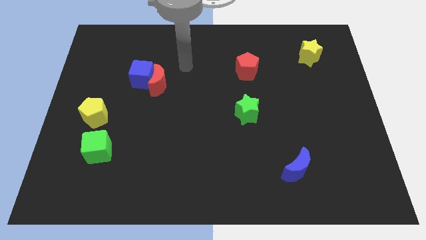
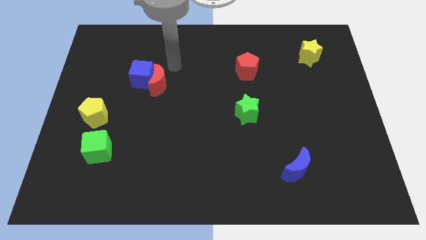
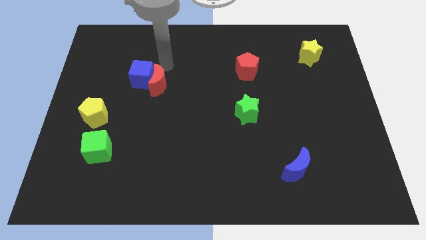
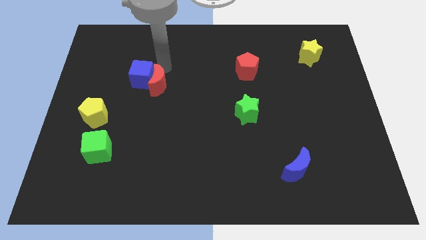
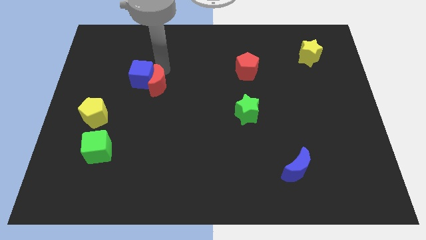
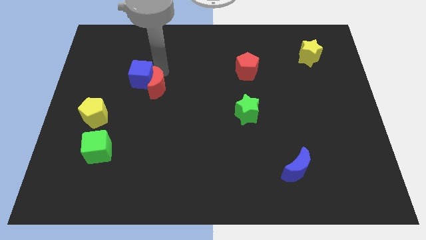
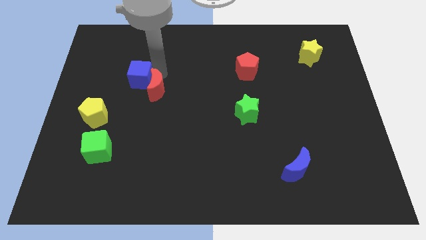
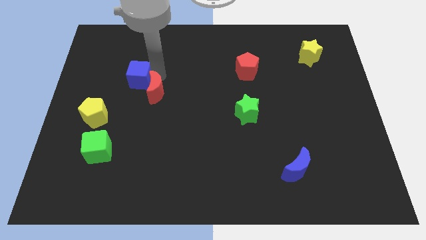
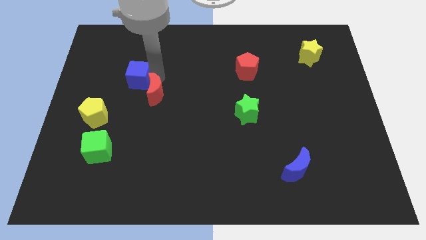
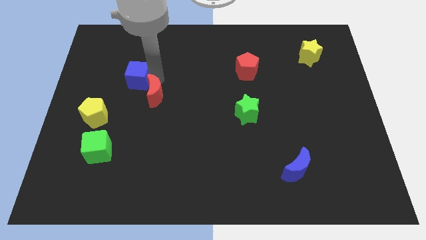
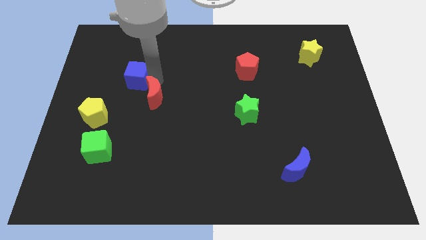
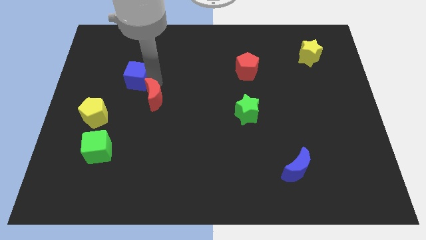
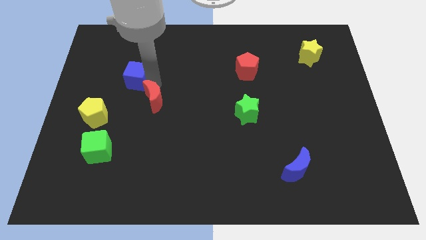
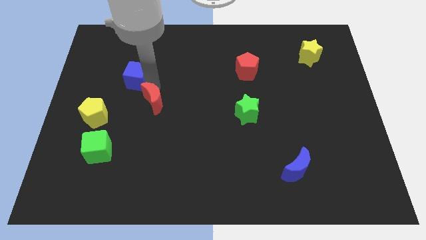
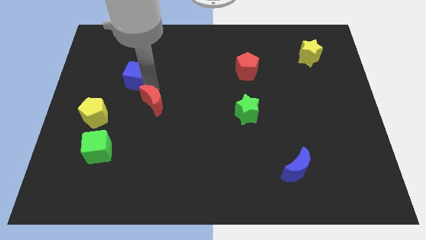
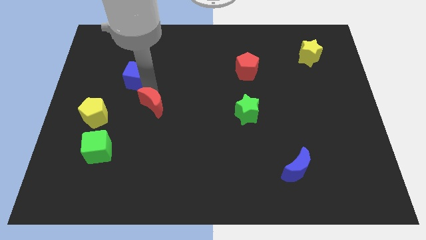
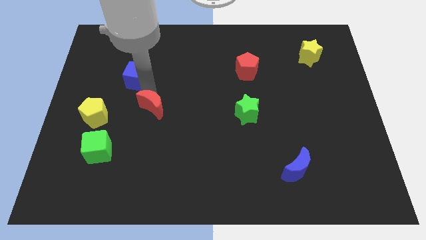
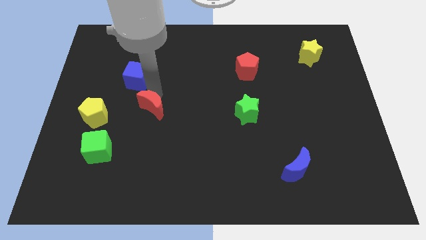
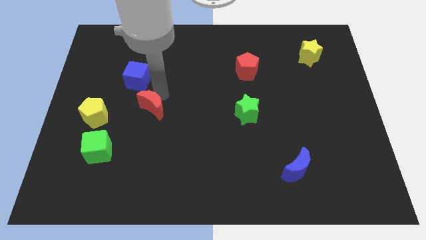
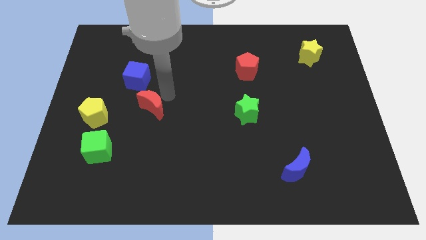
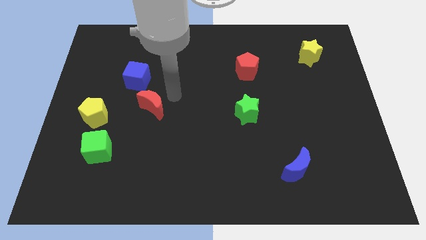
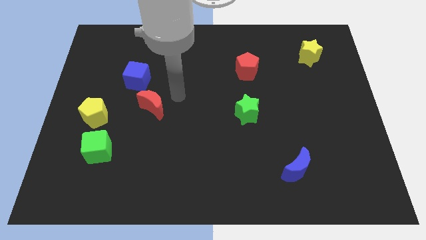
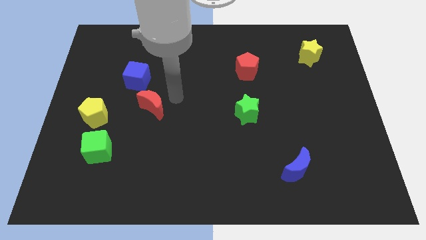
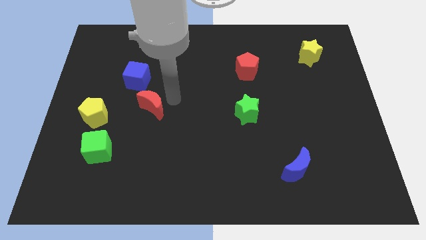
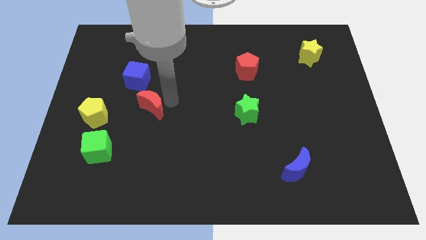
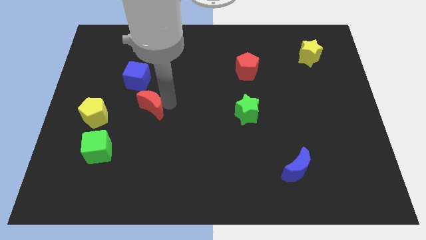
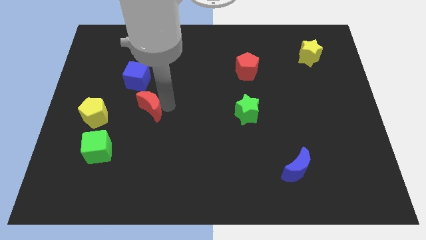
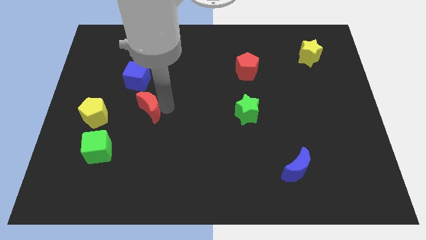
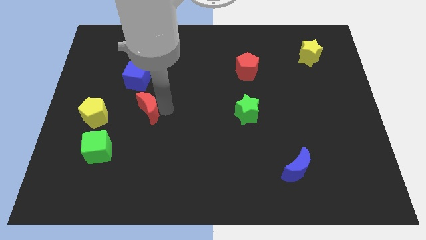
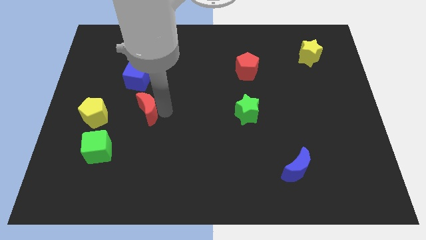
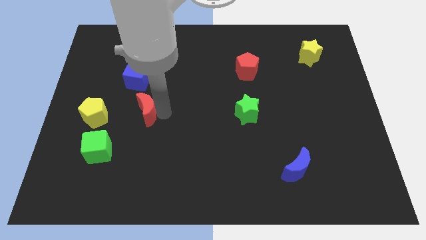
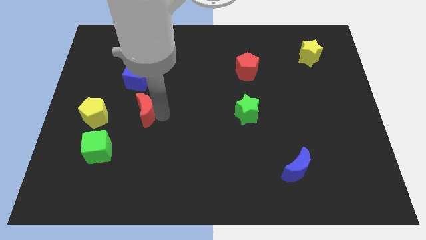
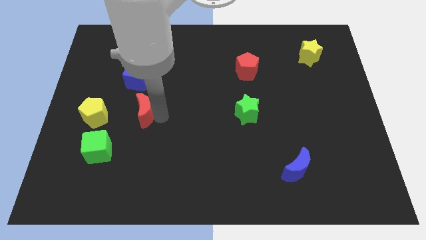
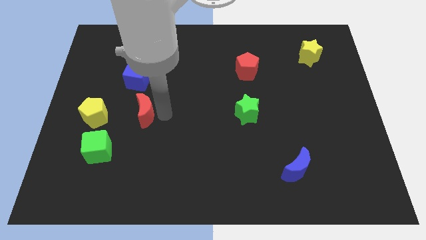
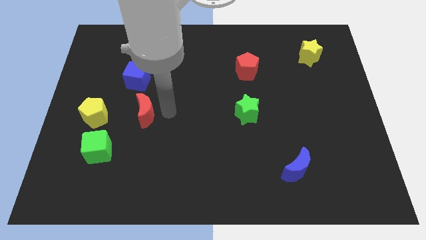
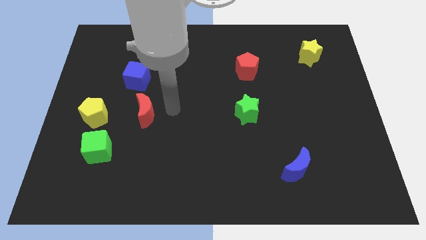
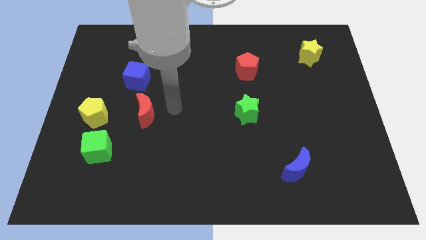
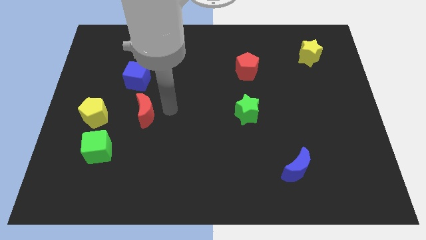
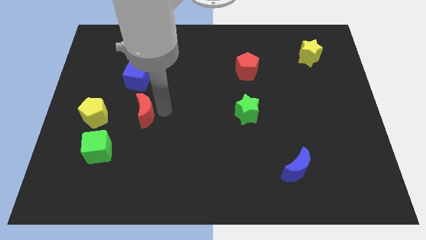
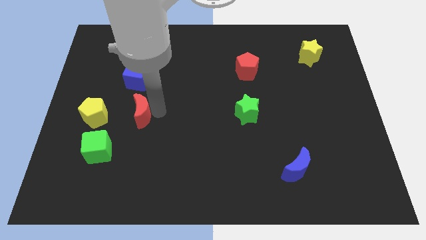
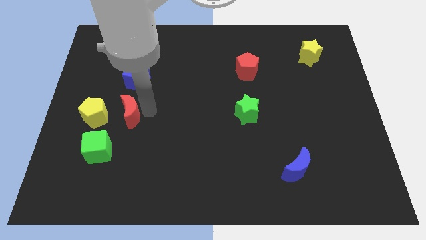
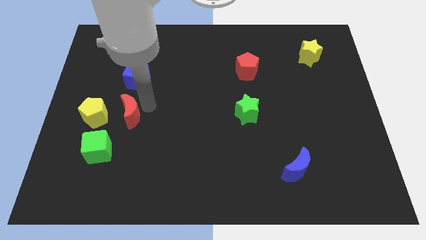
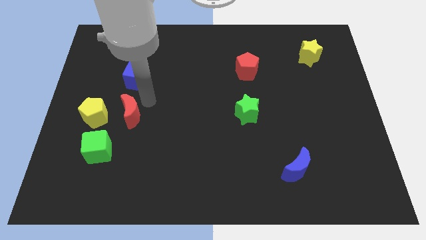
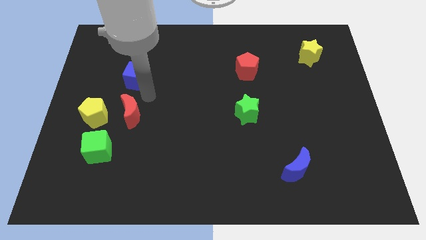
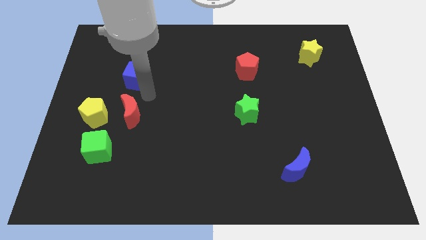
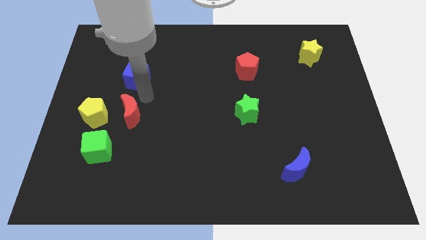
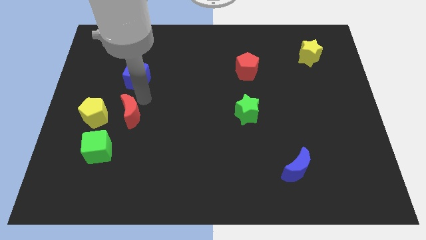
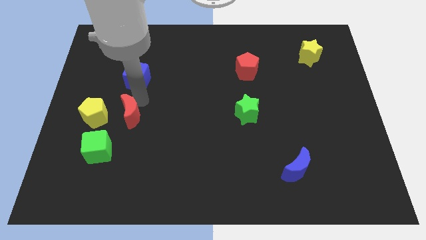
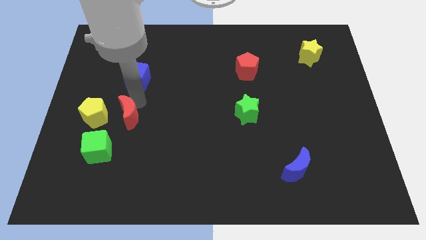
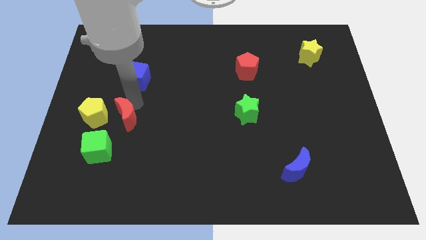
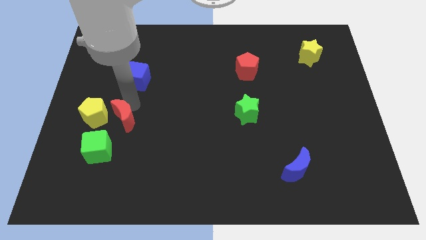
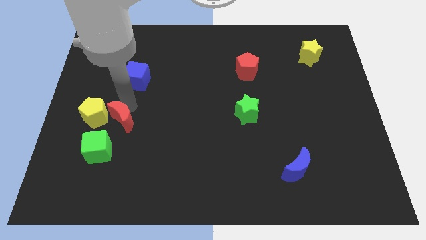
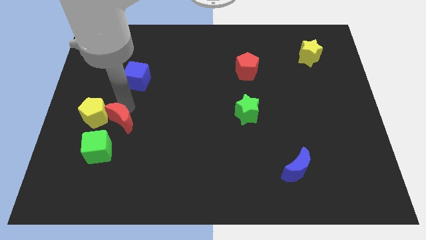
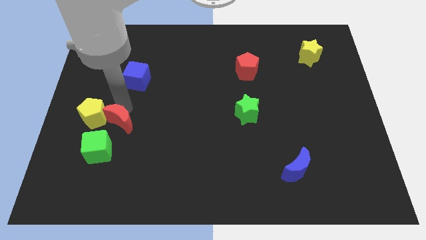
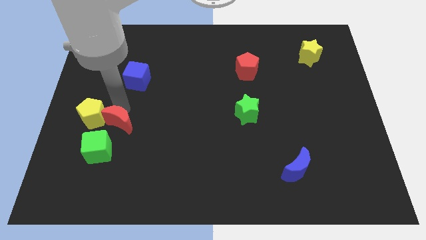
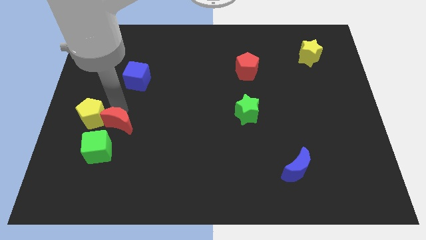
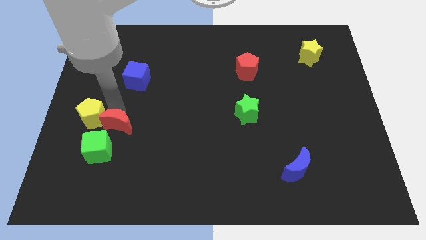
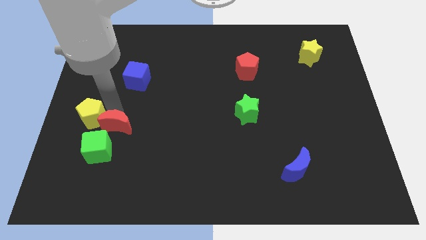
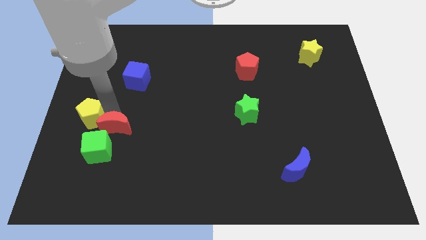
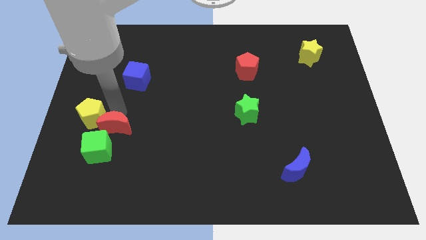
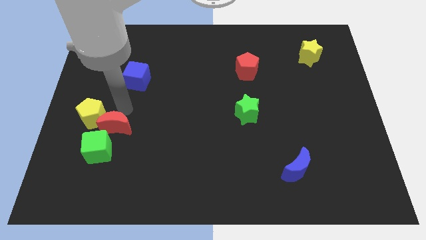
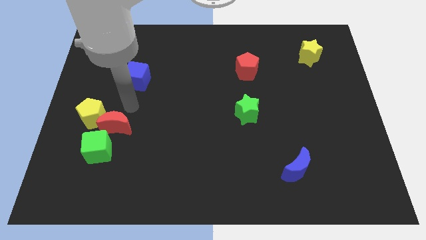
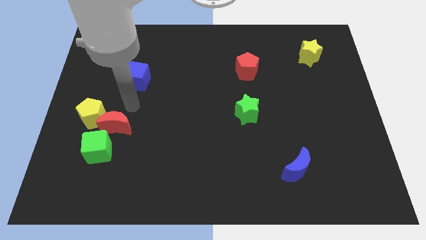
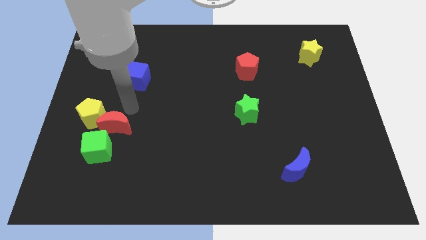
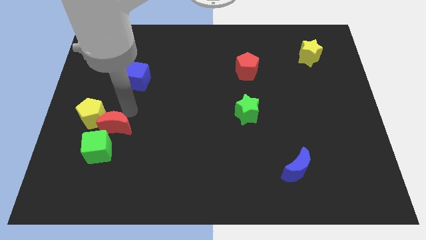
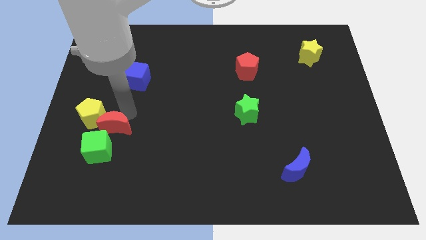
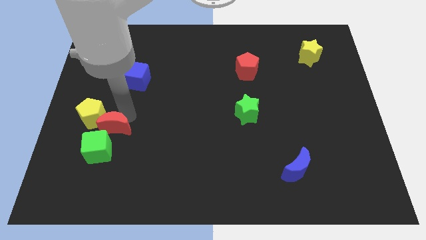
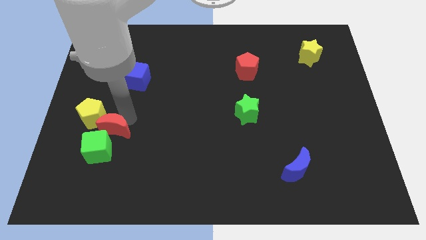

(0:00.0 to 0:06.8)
move the red moon close to the green cube
